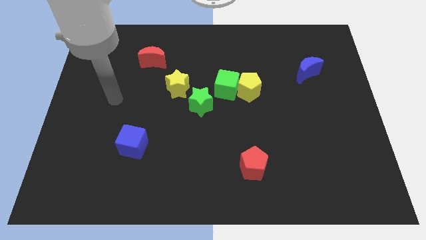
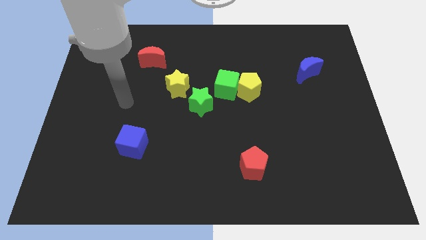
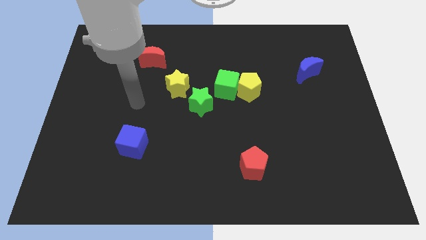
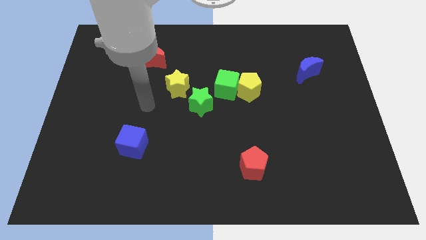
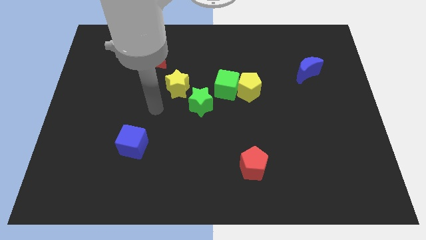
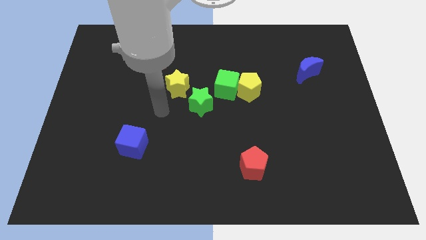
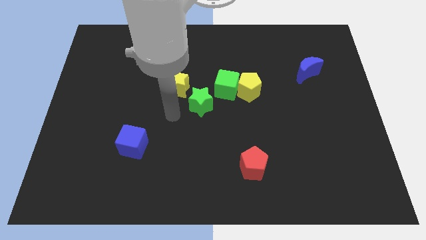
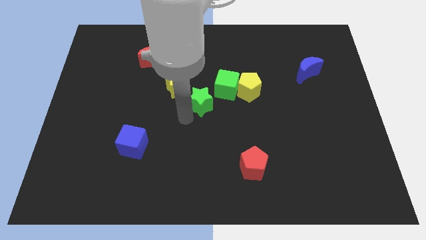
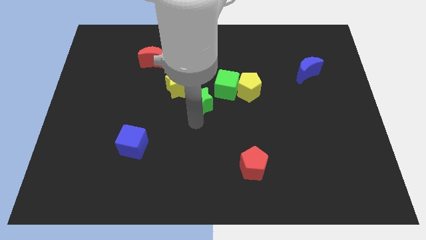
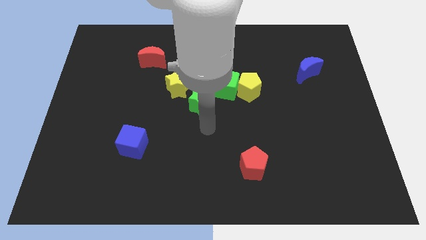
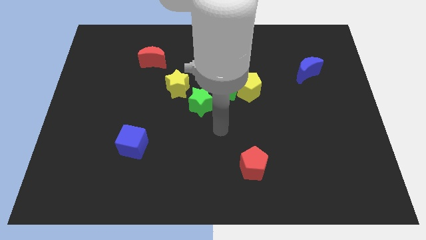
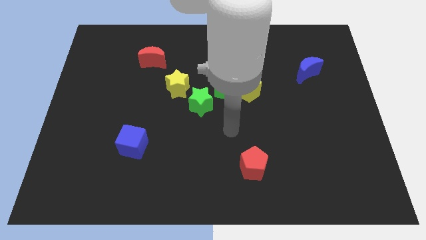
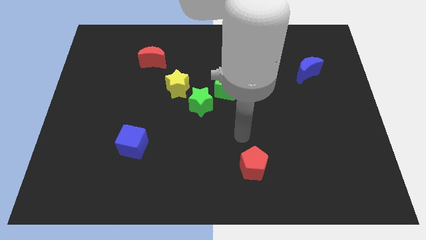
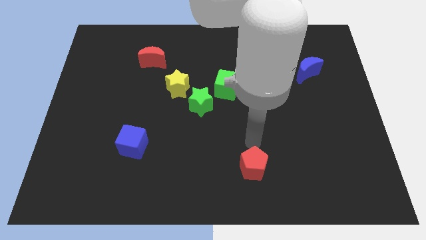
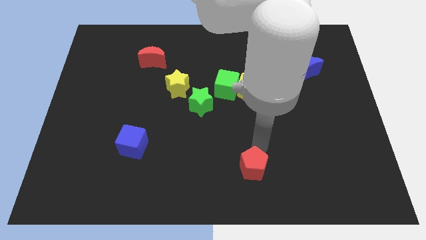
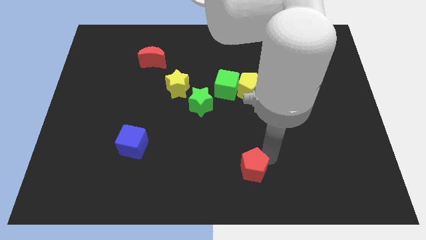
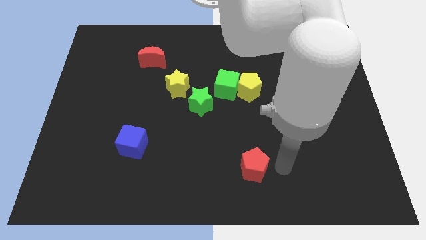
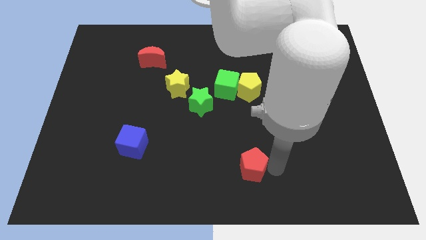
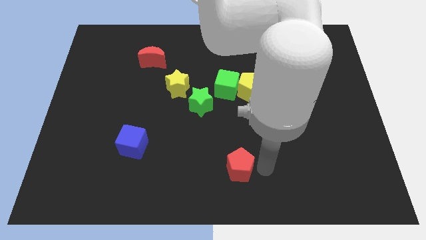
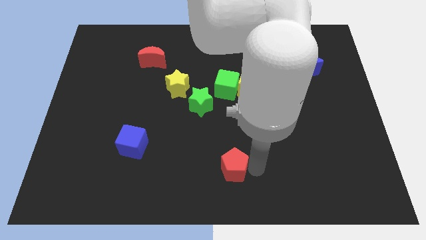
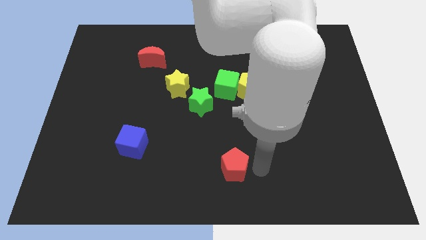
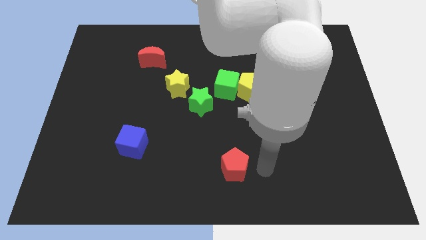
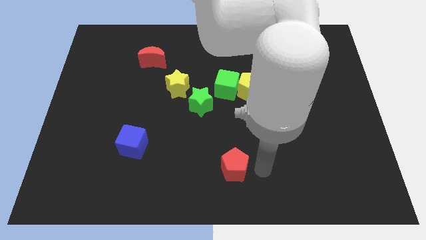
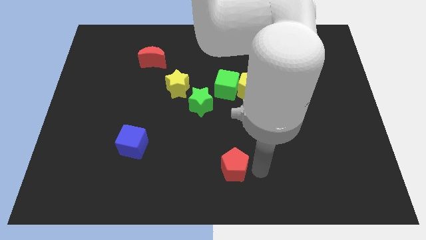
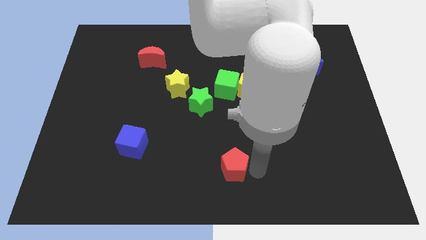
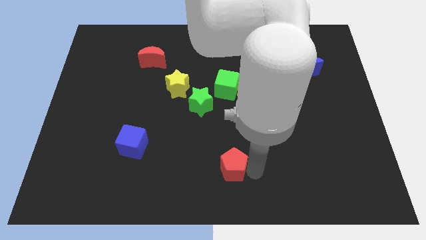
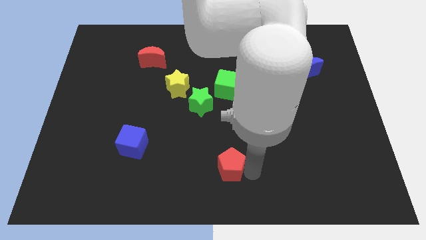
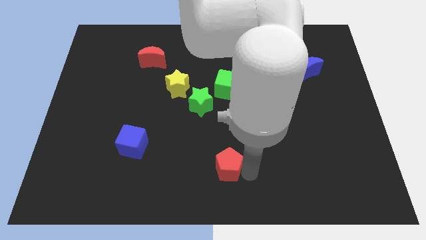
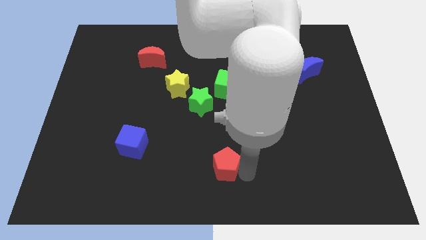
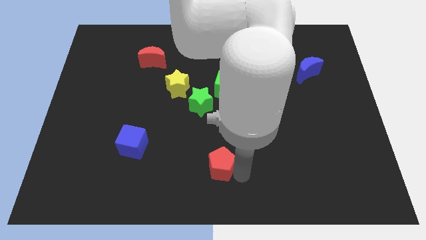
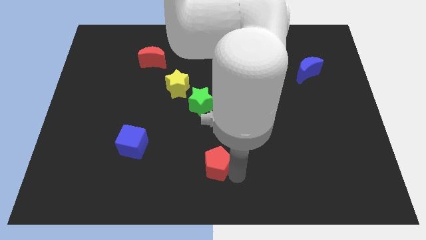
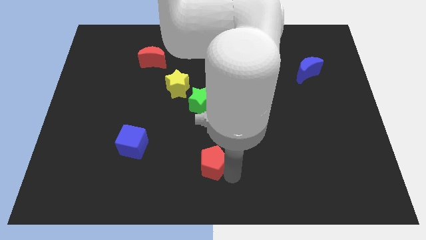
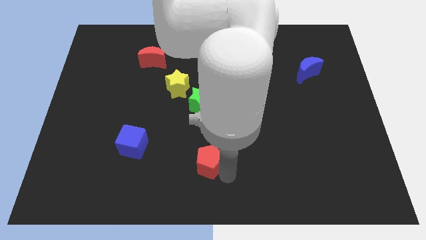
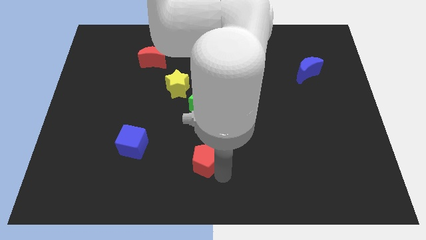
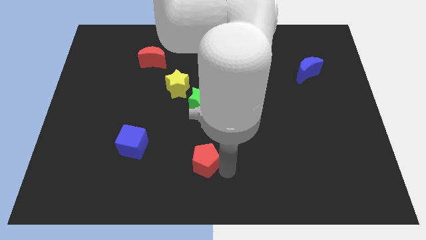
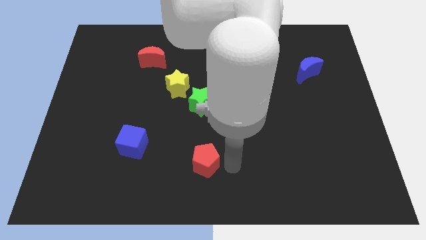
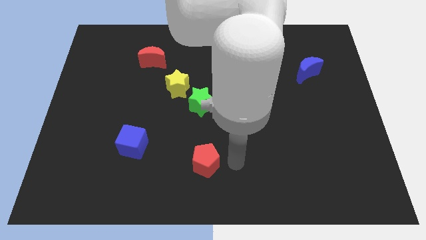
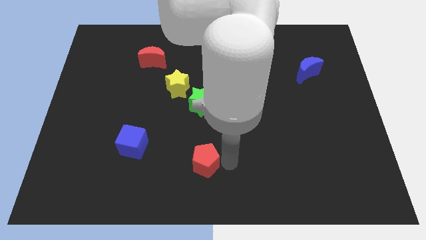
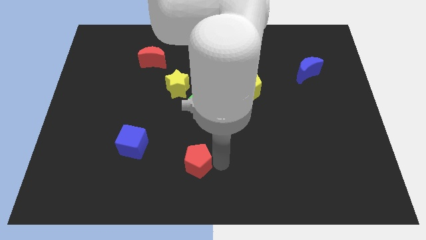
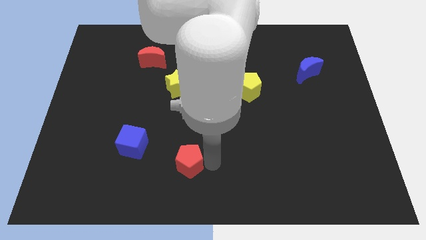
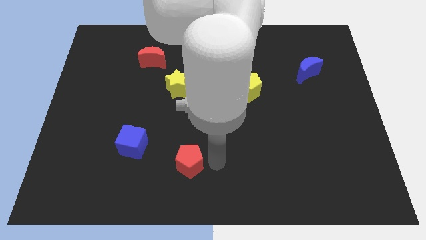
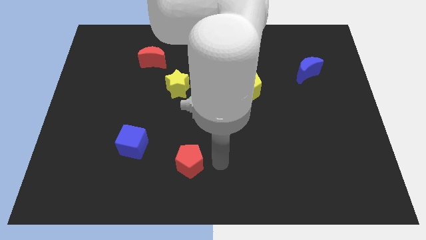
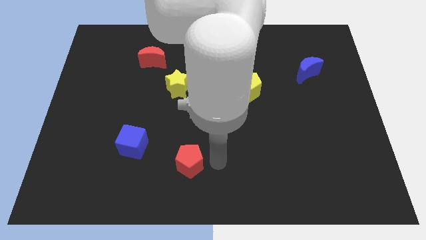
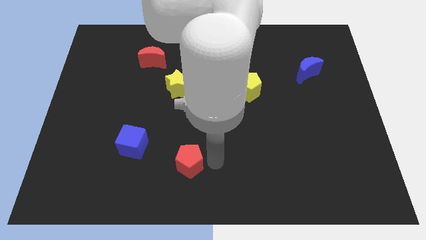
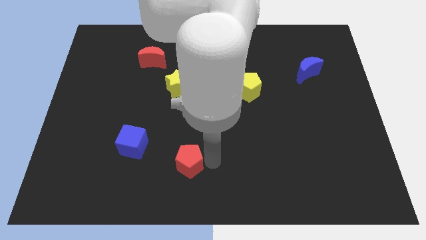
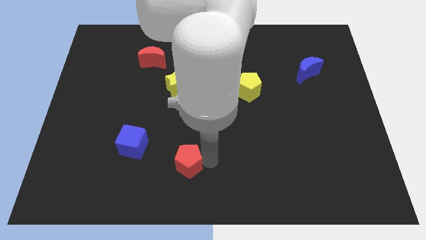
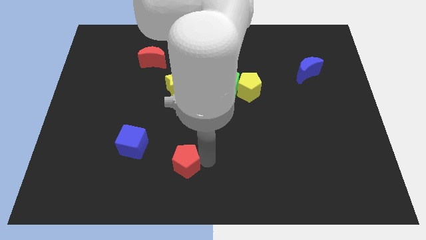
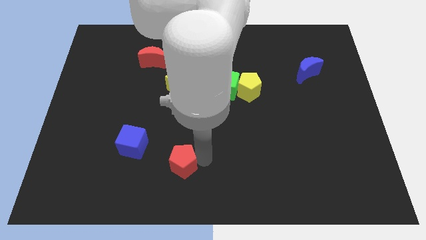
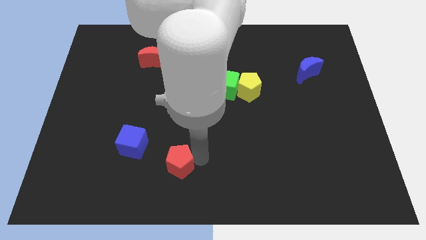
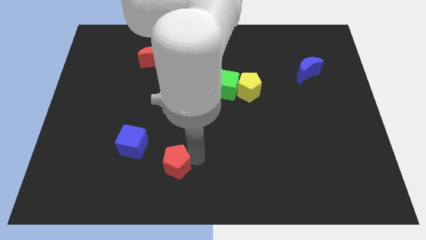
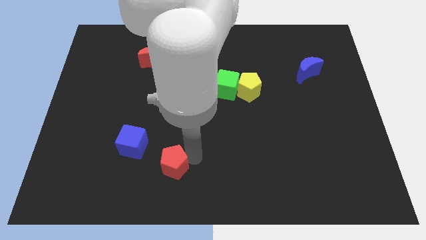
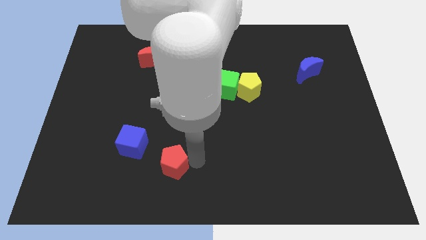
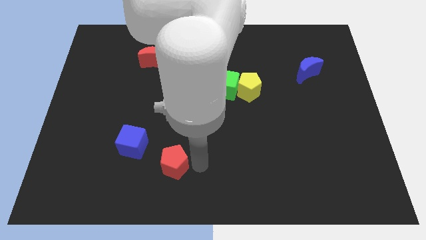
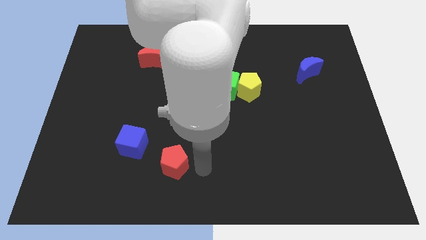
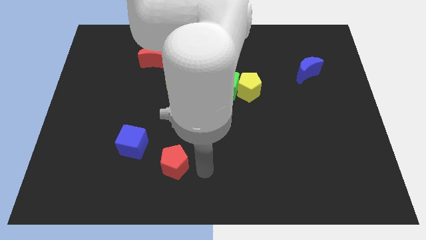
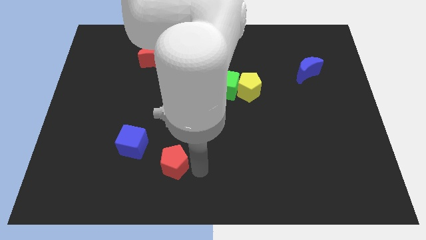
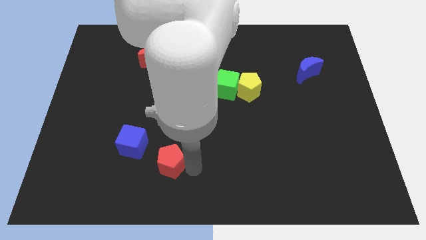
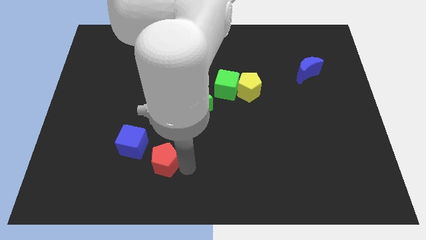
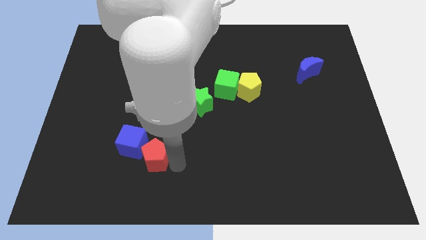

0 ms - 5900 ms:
move the red pentagon left

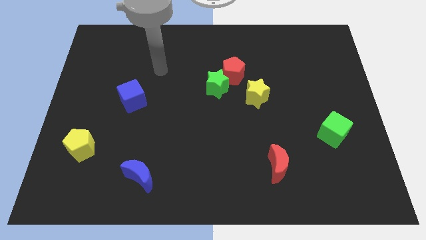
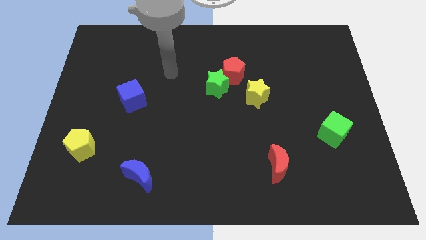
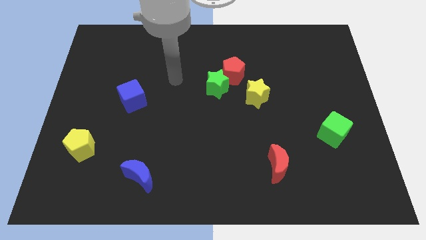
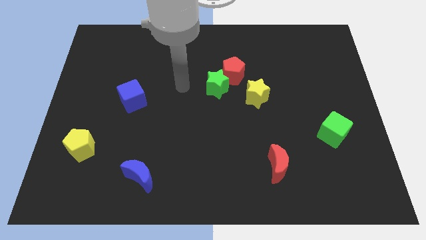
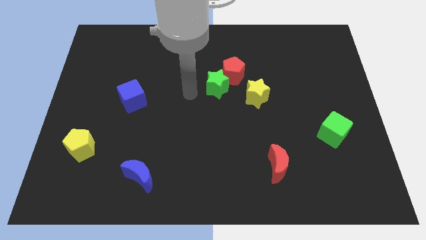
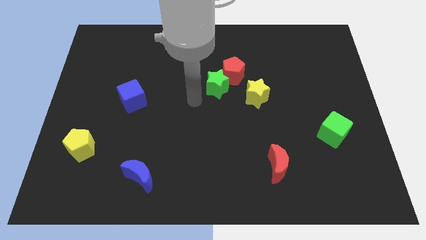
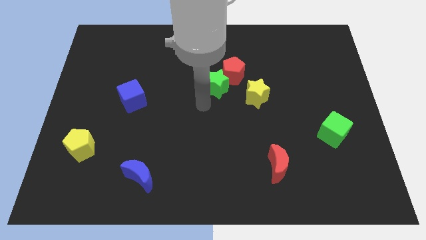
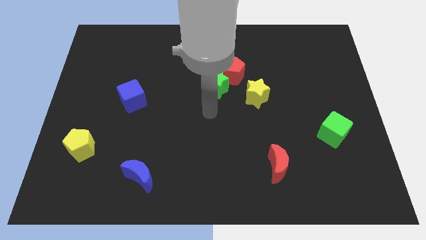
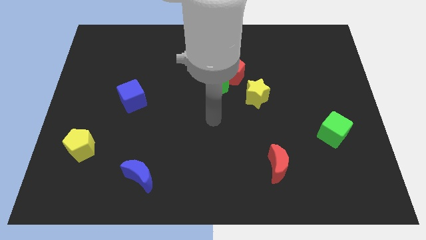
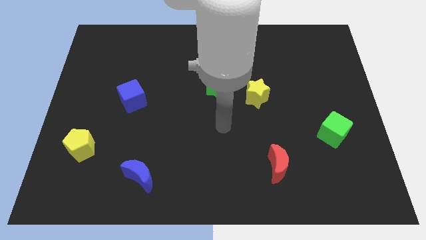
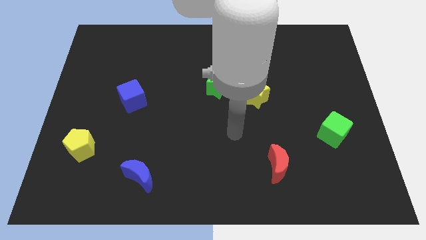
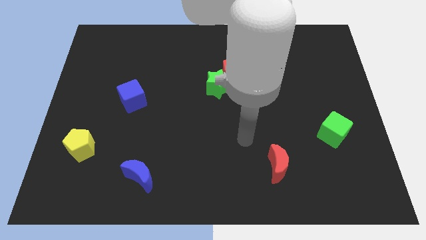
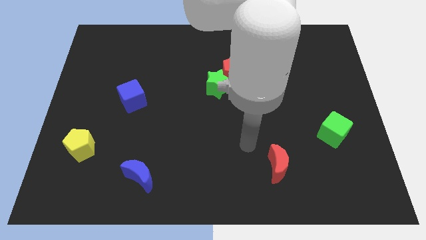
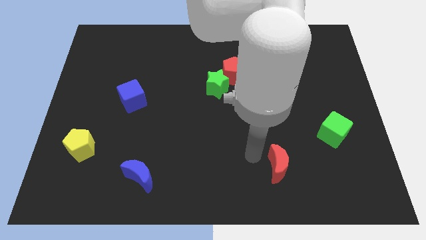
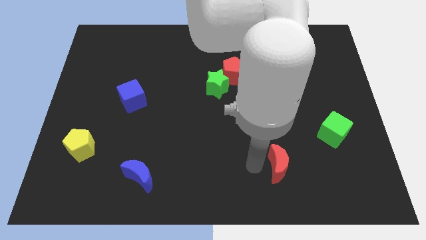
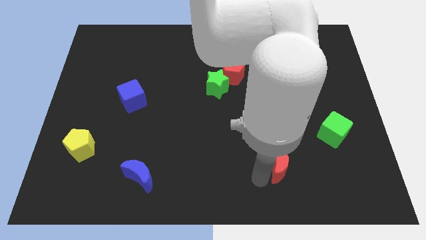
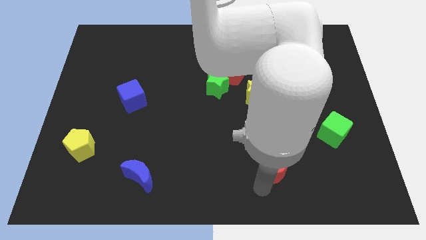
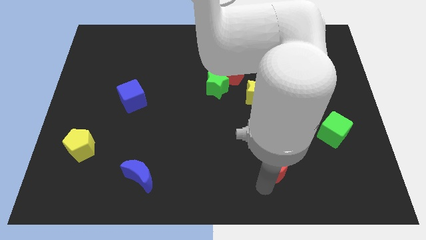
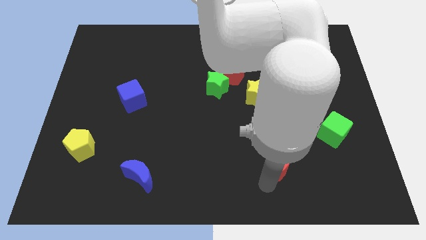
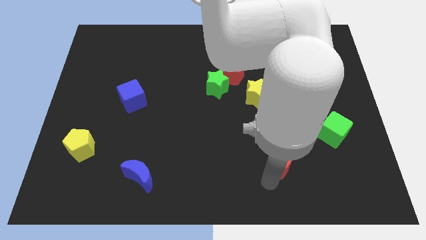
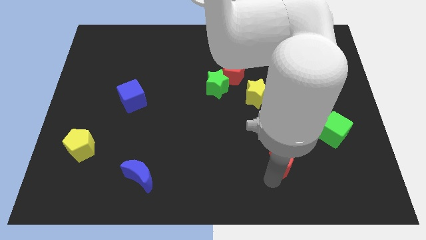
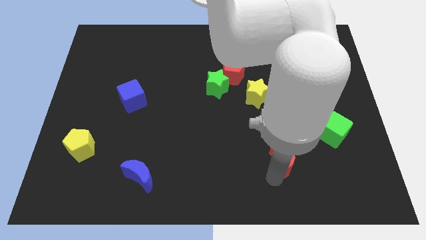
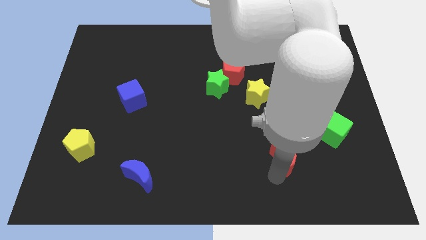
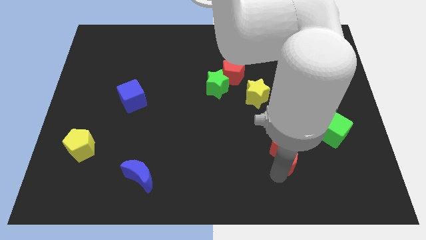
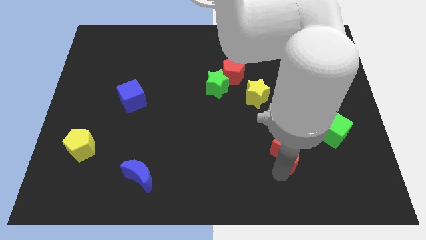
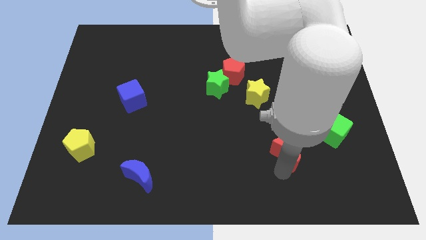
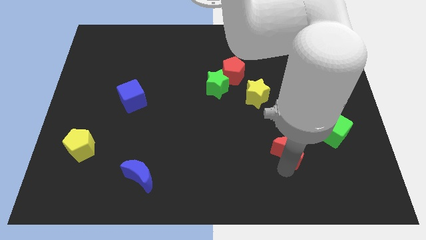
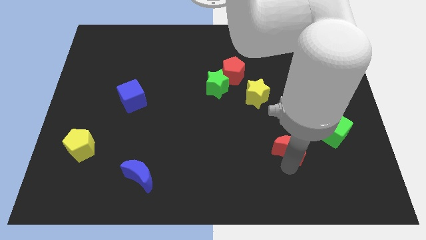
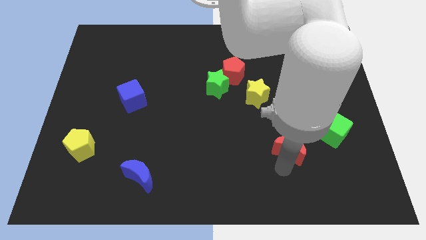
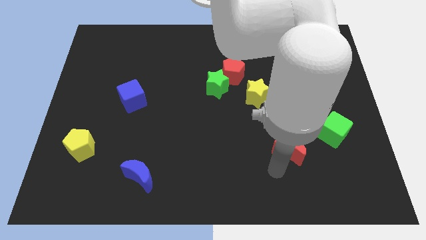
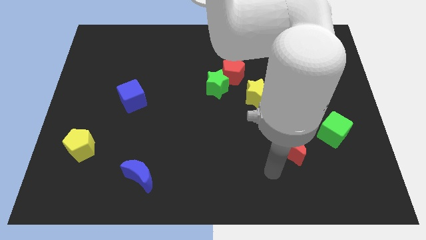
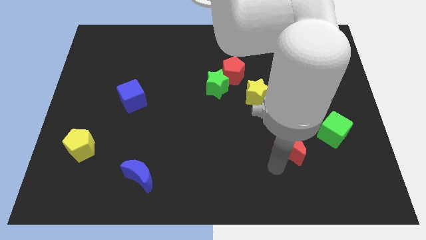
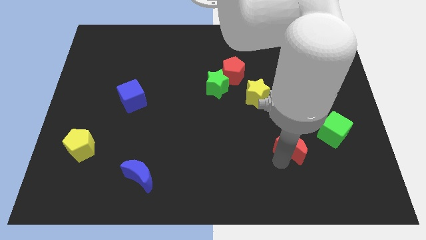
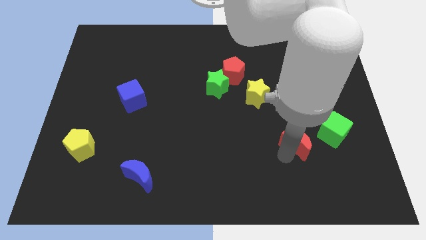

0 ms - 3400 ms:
move the red moon diagonally up and right a bit
